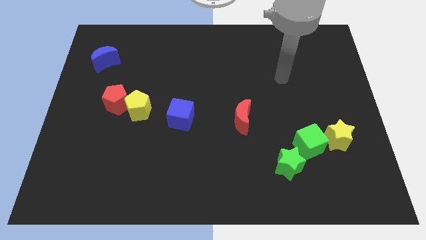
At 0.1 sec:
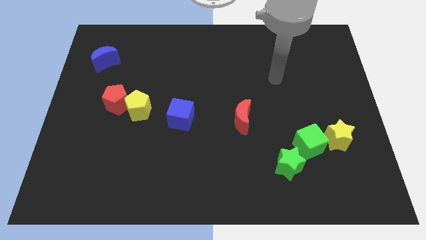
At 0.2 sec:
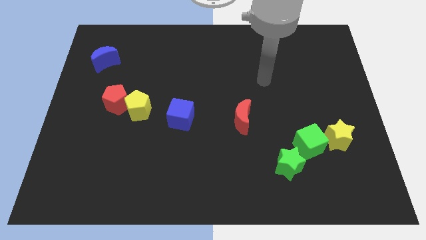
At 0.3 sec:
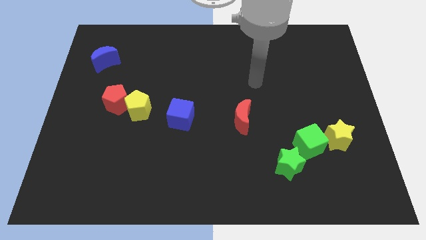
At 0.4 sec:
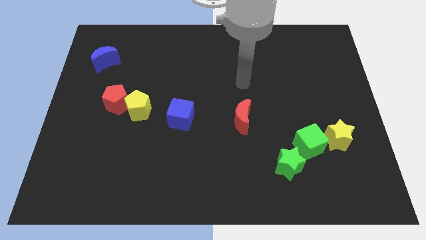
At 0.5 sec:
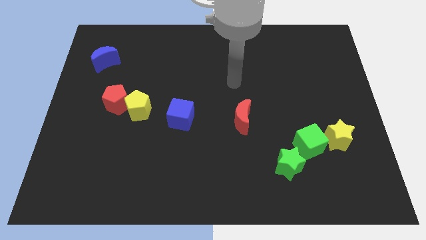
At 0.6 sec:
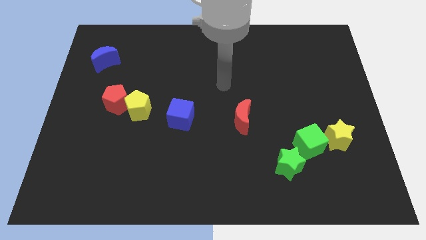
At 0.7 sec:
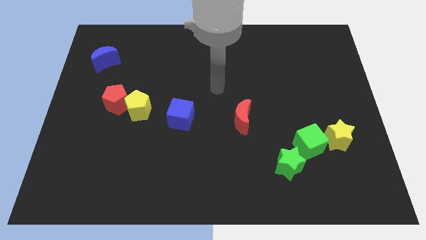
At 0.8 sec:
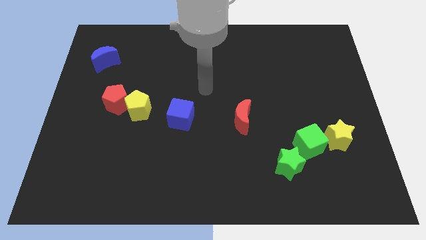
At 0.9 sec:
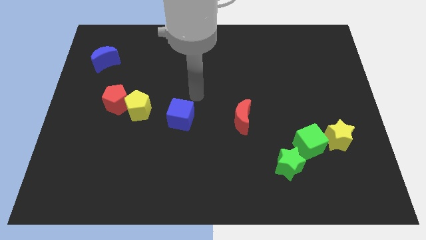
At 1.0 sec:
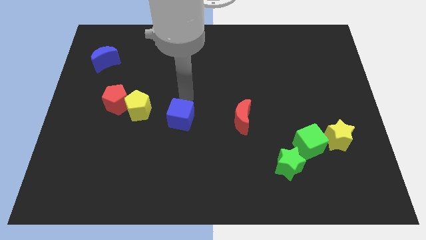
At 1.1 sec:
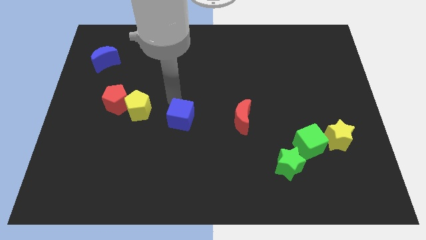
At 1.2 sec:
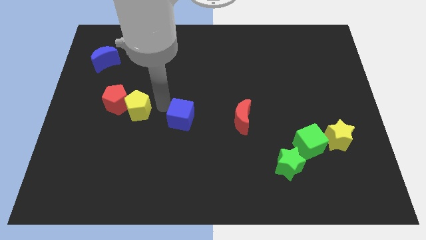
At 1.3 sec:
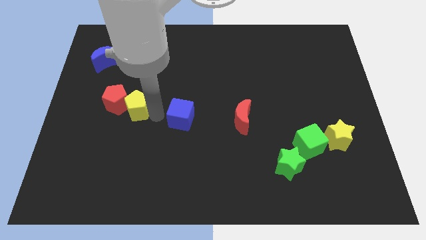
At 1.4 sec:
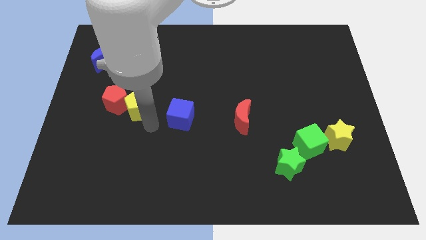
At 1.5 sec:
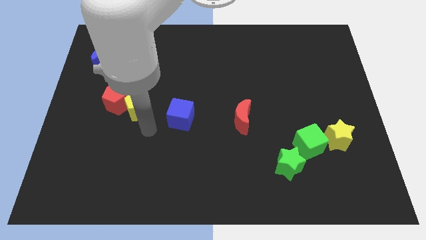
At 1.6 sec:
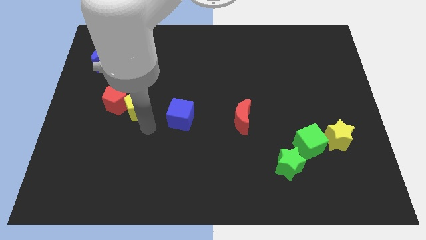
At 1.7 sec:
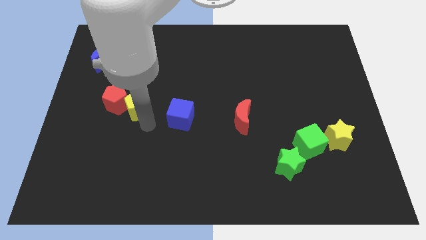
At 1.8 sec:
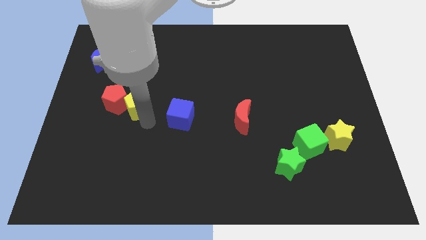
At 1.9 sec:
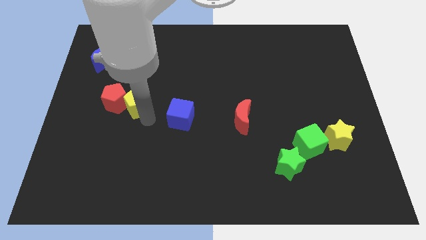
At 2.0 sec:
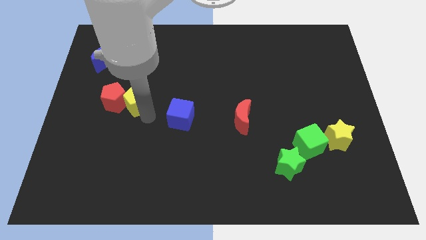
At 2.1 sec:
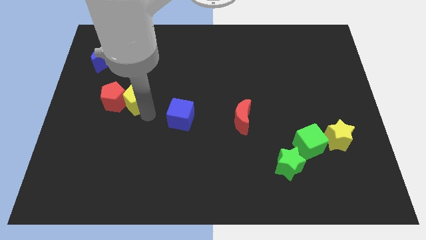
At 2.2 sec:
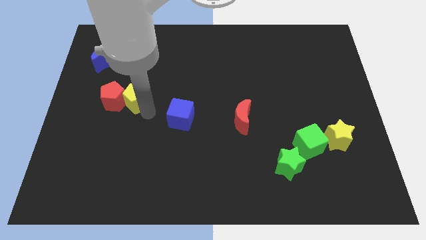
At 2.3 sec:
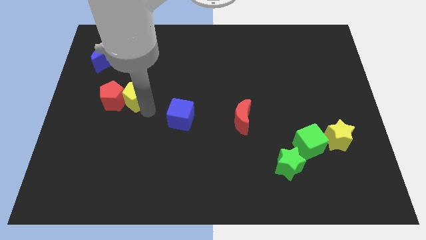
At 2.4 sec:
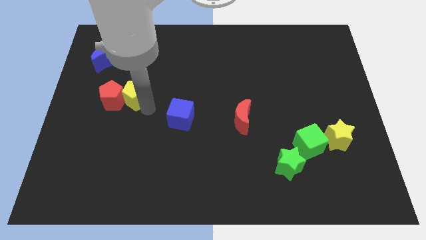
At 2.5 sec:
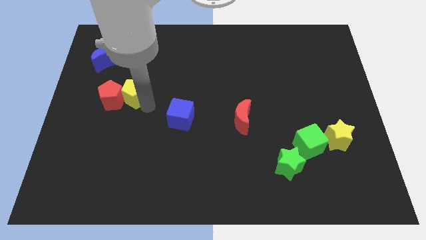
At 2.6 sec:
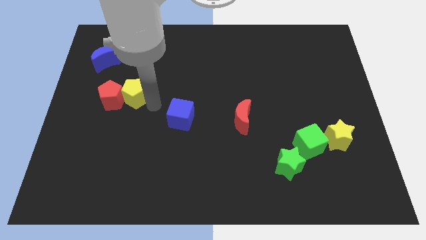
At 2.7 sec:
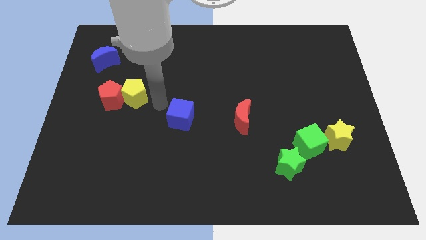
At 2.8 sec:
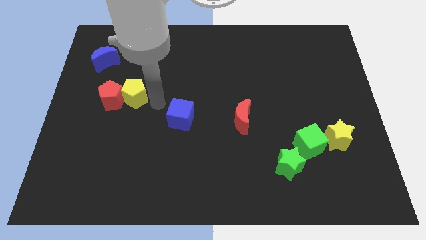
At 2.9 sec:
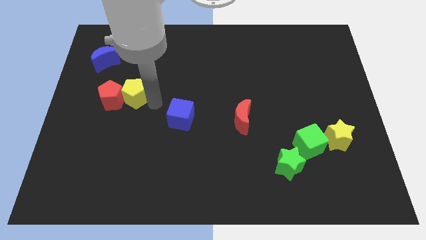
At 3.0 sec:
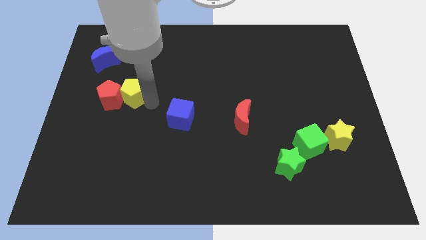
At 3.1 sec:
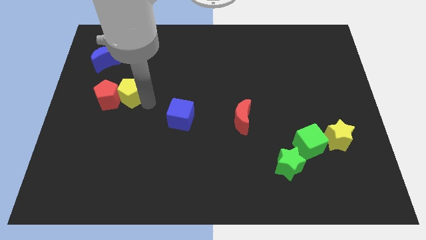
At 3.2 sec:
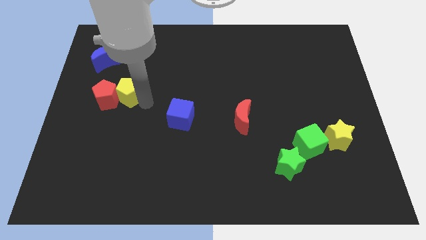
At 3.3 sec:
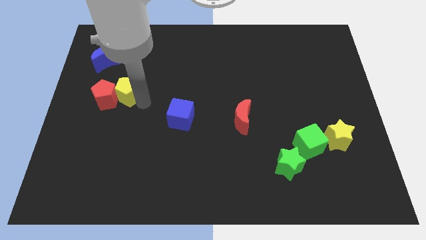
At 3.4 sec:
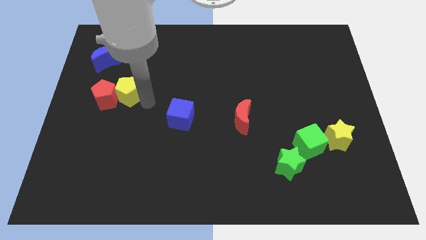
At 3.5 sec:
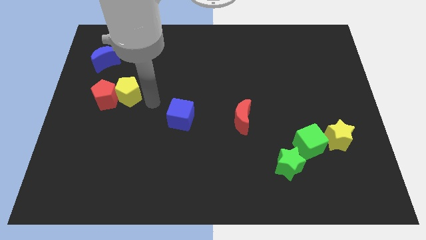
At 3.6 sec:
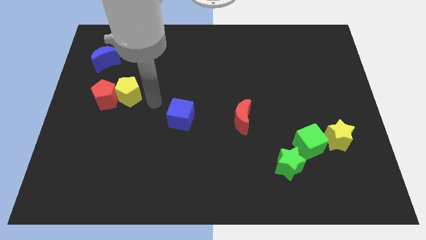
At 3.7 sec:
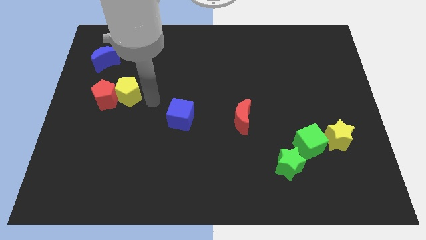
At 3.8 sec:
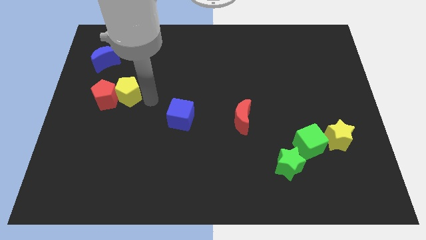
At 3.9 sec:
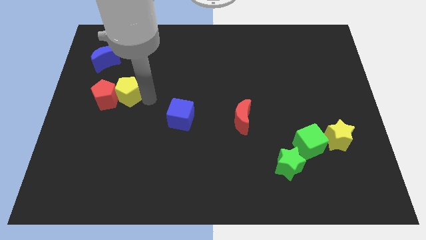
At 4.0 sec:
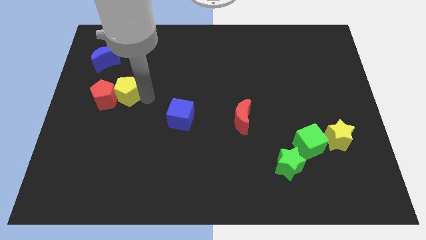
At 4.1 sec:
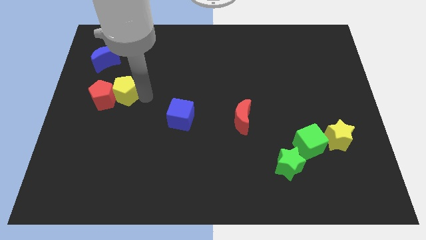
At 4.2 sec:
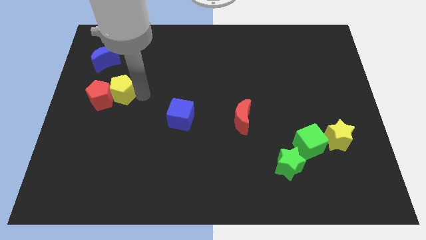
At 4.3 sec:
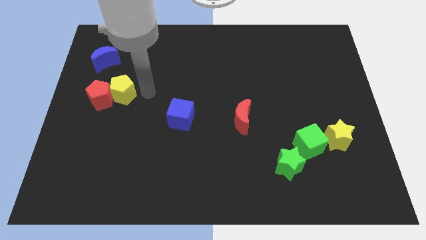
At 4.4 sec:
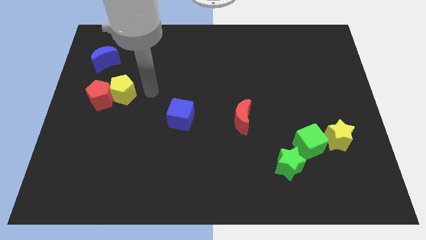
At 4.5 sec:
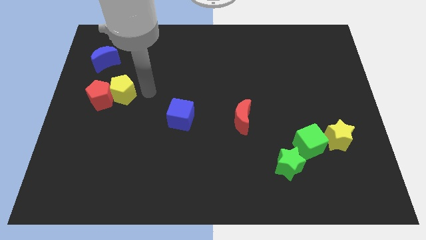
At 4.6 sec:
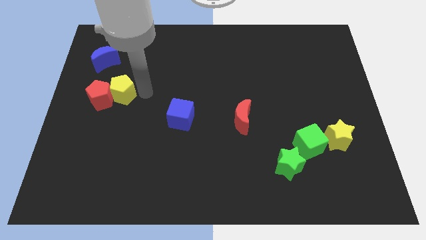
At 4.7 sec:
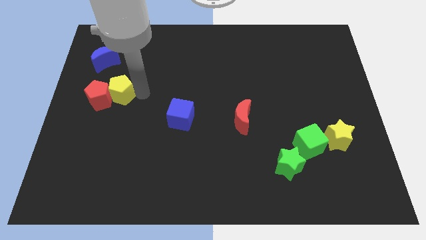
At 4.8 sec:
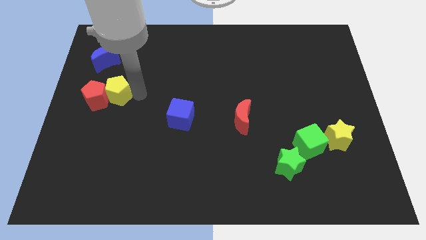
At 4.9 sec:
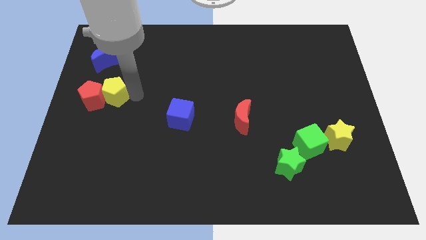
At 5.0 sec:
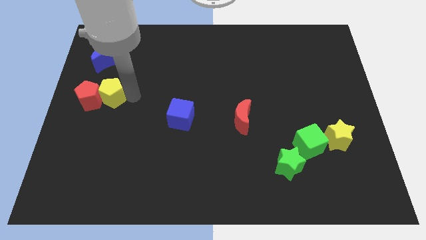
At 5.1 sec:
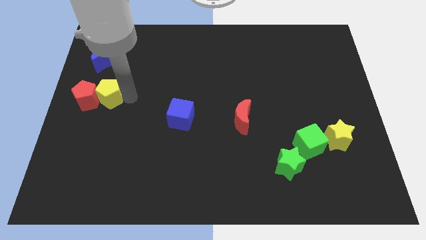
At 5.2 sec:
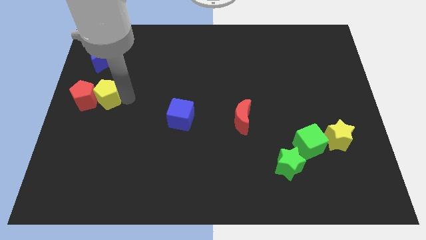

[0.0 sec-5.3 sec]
push the yellow pentagon to the left side of the board

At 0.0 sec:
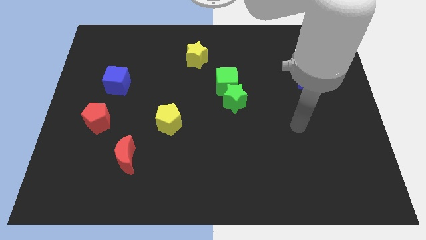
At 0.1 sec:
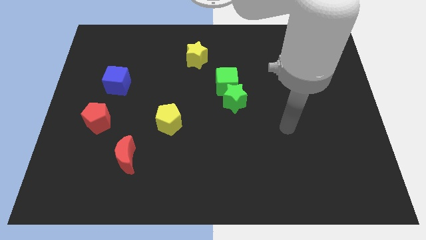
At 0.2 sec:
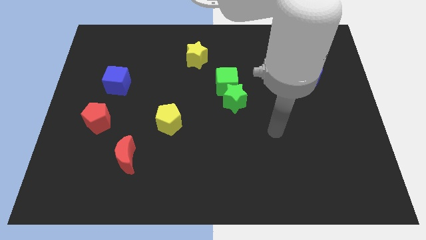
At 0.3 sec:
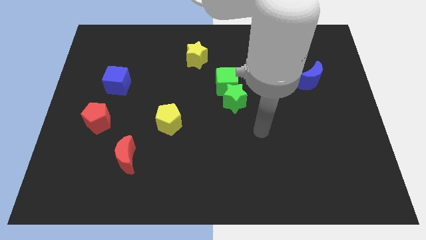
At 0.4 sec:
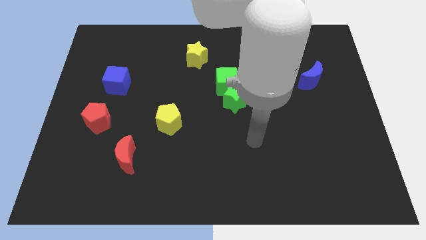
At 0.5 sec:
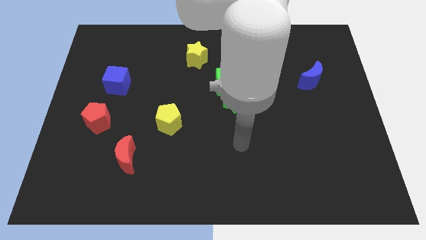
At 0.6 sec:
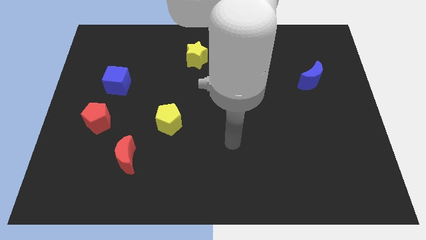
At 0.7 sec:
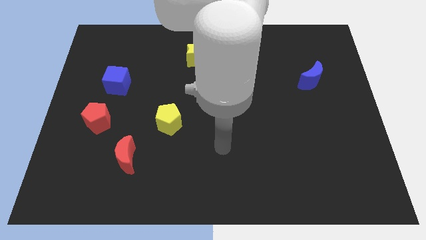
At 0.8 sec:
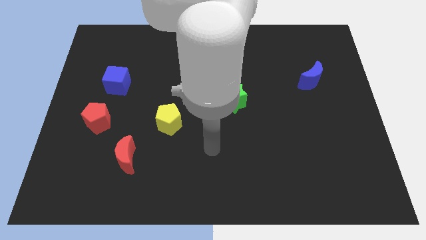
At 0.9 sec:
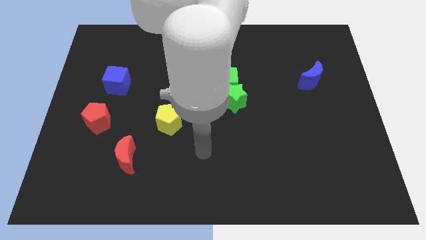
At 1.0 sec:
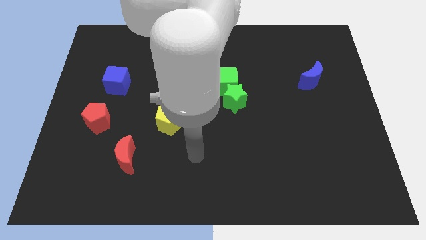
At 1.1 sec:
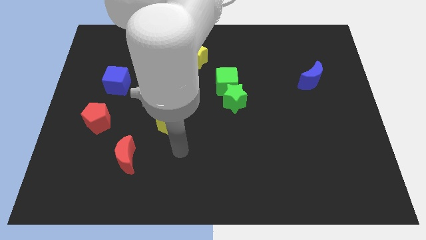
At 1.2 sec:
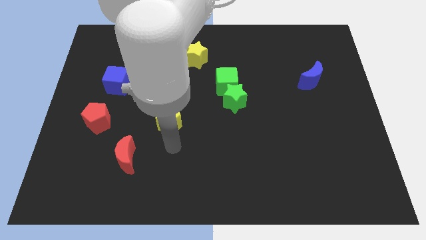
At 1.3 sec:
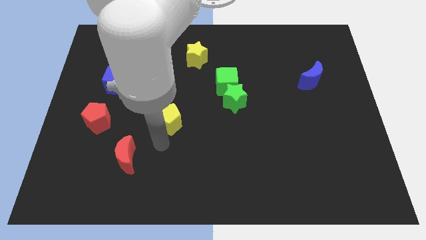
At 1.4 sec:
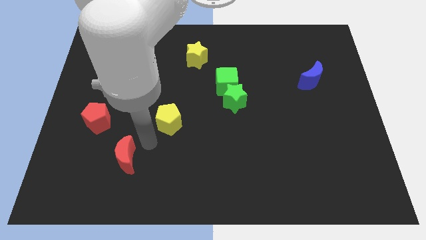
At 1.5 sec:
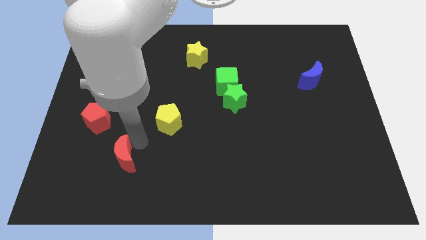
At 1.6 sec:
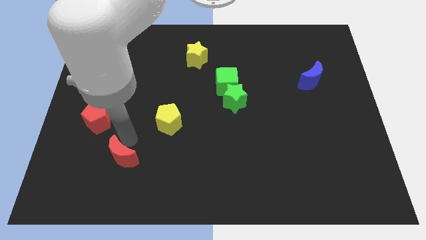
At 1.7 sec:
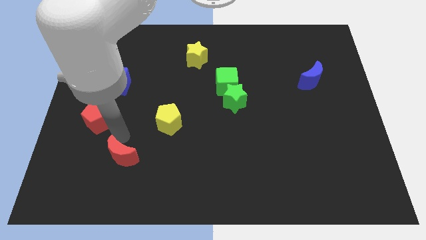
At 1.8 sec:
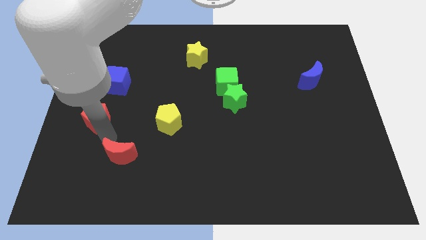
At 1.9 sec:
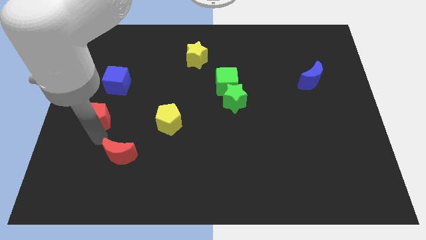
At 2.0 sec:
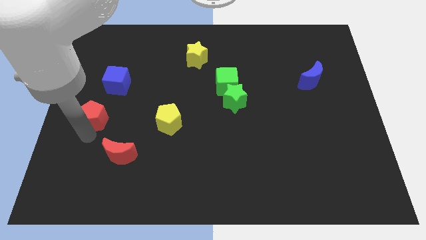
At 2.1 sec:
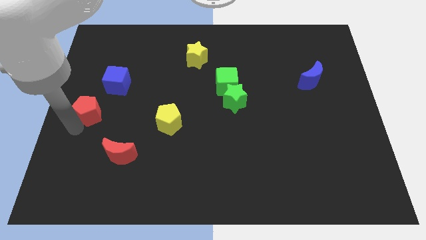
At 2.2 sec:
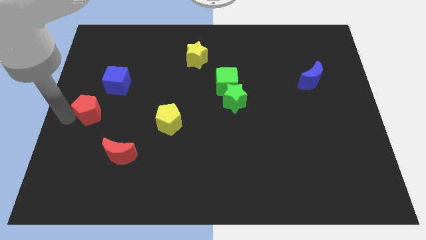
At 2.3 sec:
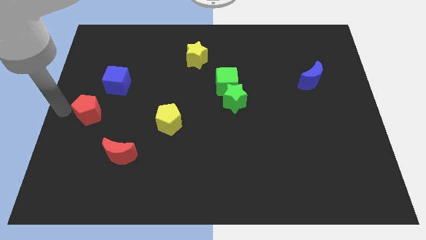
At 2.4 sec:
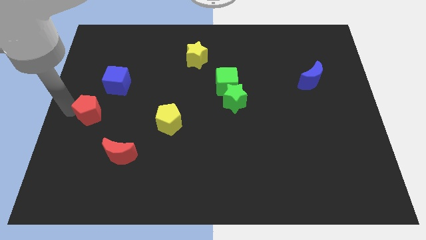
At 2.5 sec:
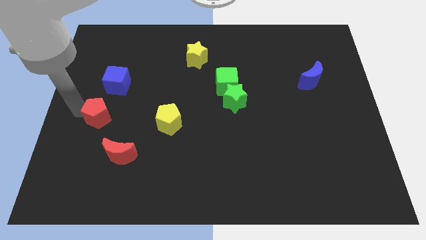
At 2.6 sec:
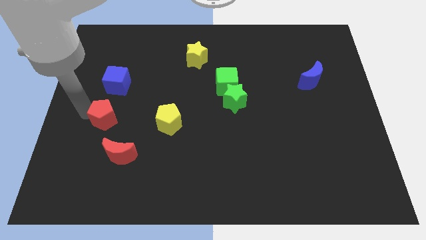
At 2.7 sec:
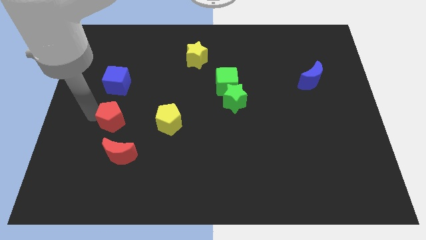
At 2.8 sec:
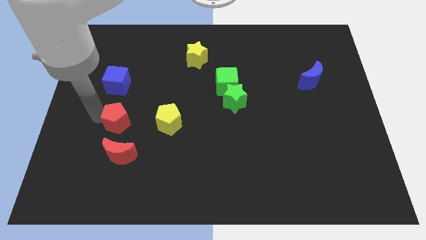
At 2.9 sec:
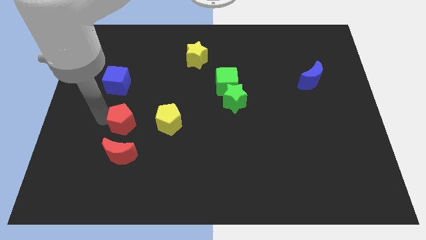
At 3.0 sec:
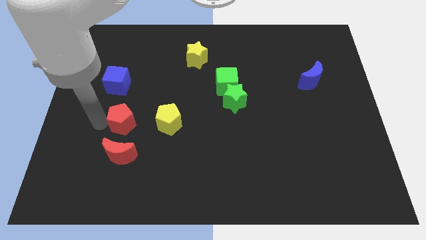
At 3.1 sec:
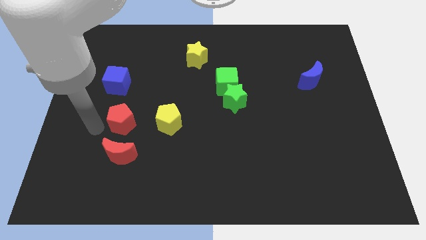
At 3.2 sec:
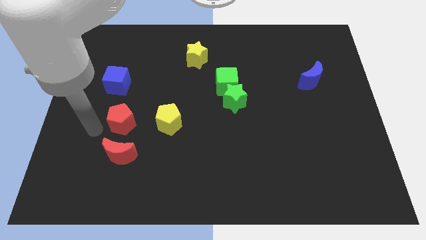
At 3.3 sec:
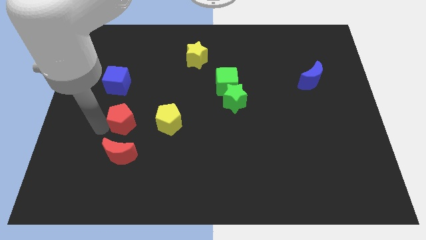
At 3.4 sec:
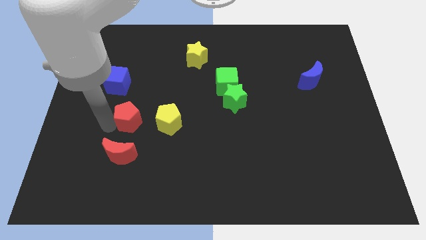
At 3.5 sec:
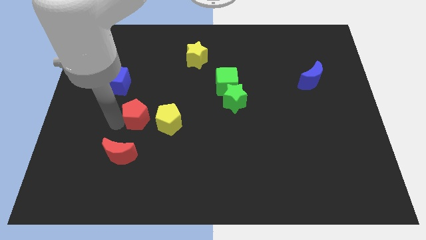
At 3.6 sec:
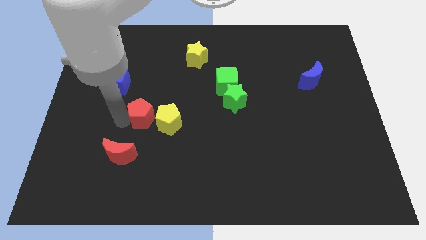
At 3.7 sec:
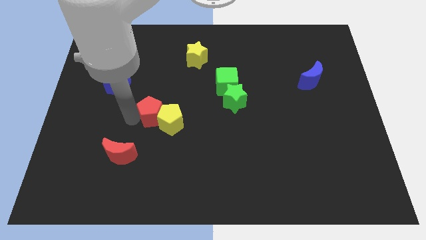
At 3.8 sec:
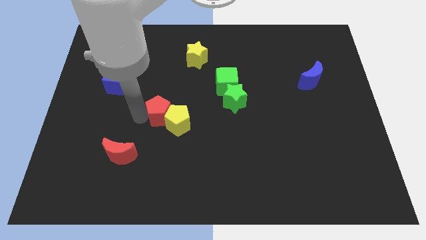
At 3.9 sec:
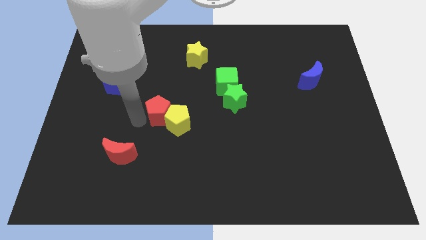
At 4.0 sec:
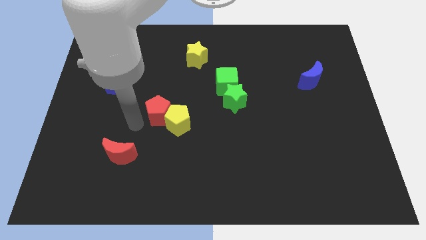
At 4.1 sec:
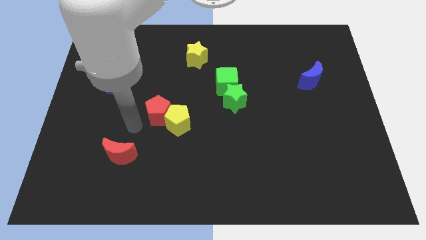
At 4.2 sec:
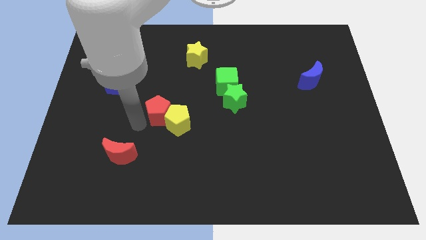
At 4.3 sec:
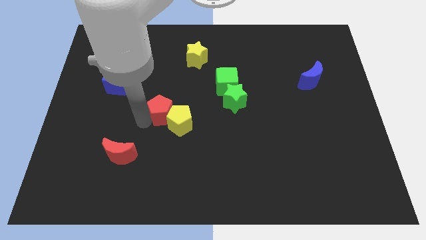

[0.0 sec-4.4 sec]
put the red pentagon to the middle
